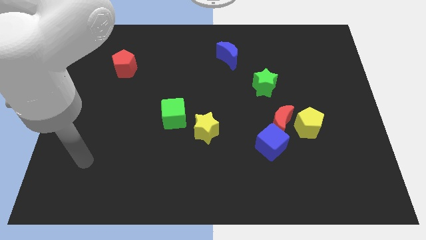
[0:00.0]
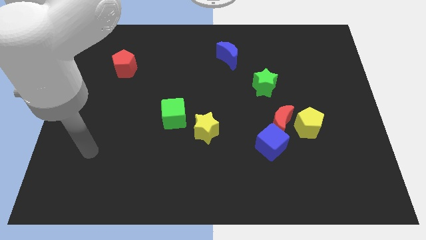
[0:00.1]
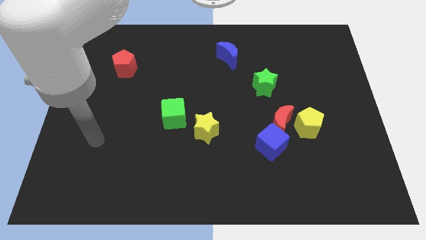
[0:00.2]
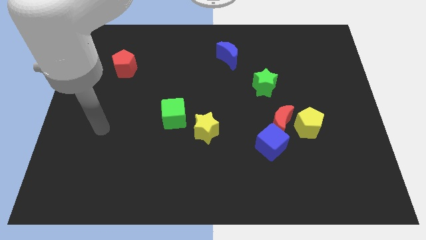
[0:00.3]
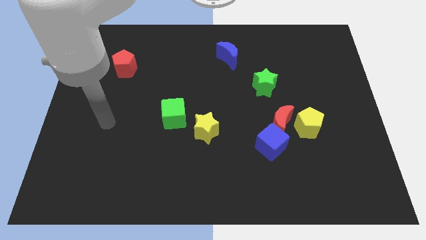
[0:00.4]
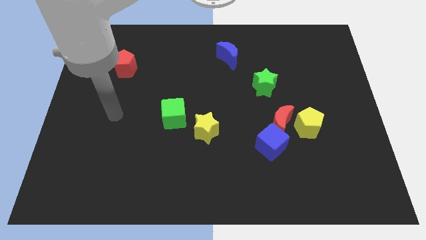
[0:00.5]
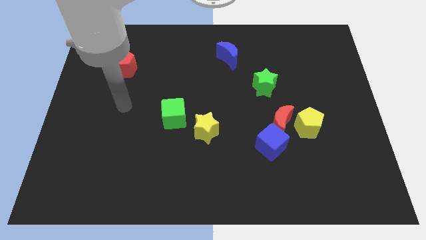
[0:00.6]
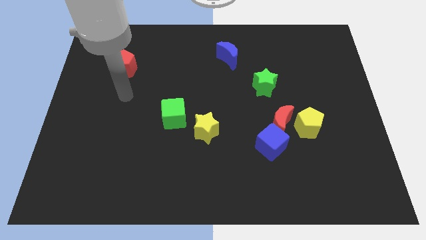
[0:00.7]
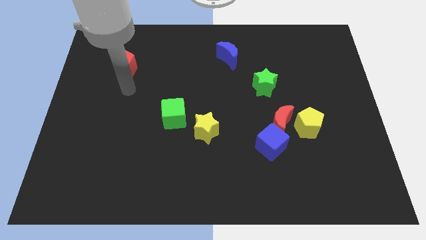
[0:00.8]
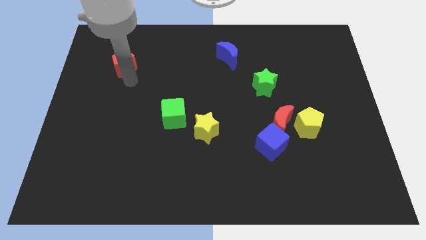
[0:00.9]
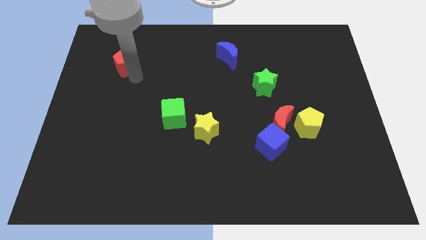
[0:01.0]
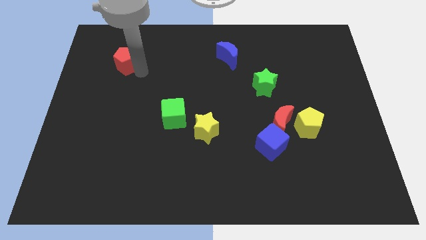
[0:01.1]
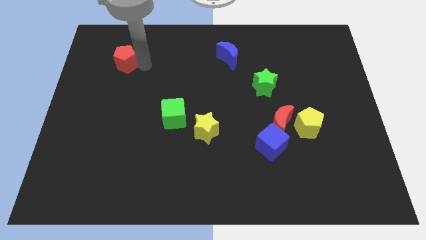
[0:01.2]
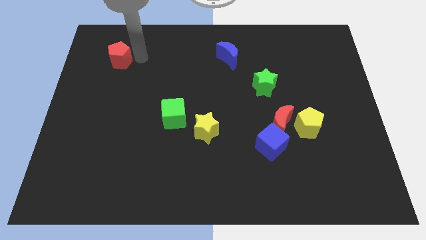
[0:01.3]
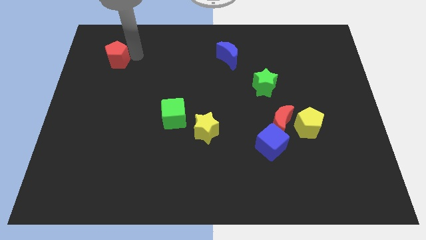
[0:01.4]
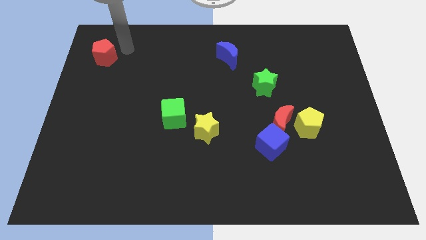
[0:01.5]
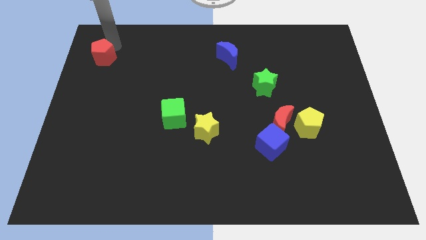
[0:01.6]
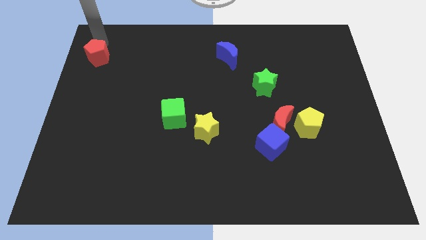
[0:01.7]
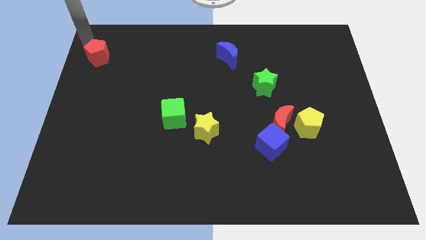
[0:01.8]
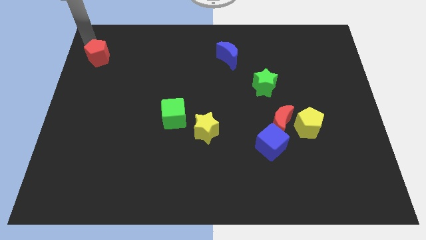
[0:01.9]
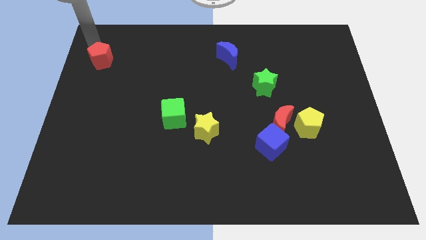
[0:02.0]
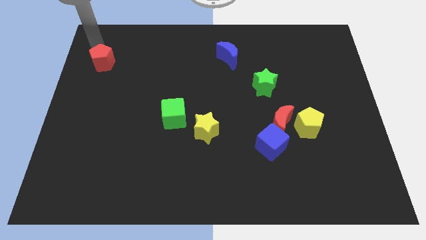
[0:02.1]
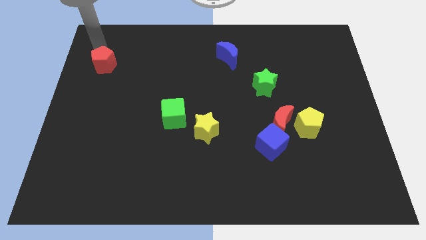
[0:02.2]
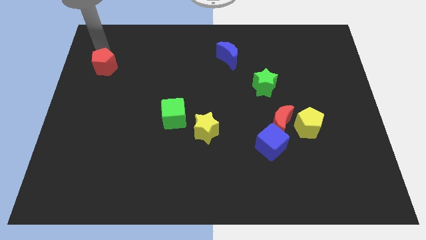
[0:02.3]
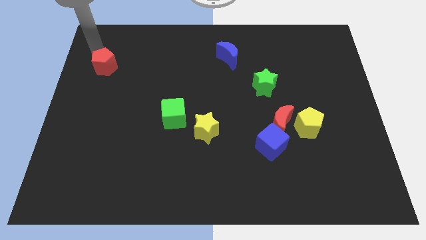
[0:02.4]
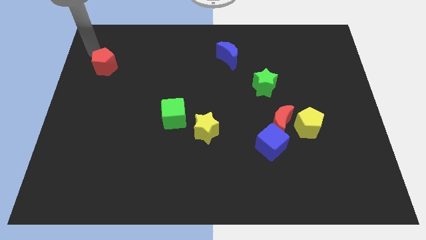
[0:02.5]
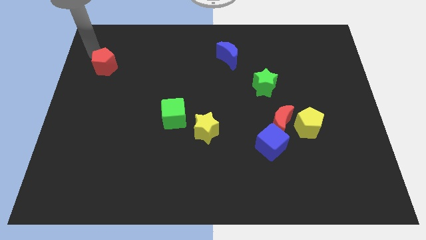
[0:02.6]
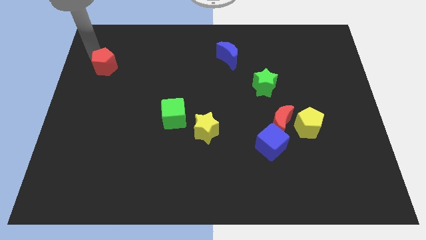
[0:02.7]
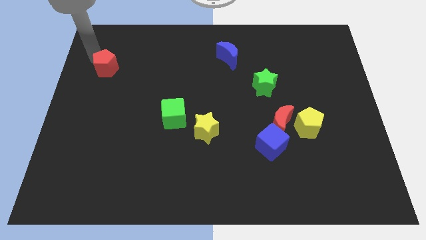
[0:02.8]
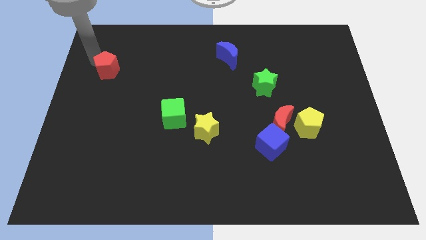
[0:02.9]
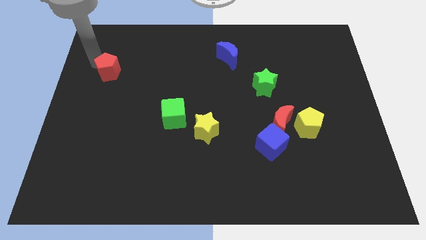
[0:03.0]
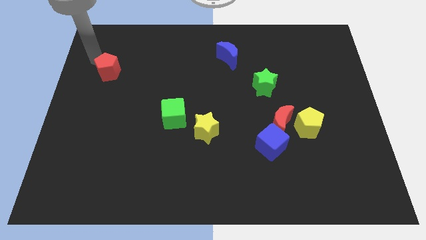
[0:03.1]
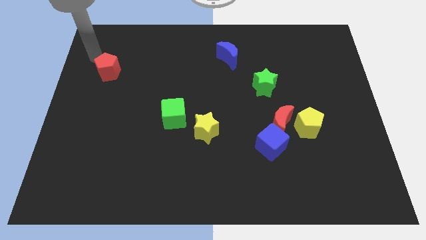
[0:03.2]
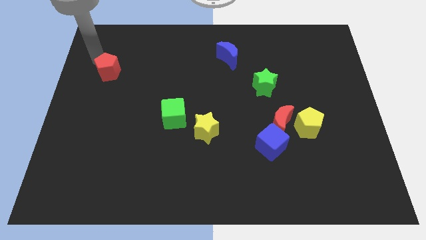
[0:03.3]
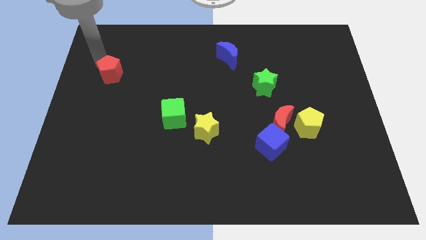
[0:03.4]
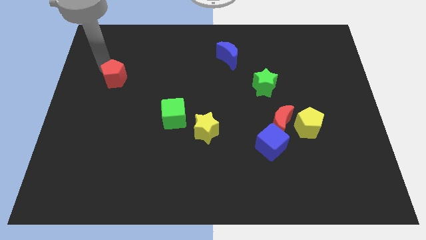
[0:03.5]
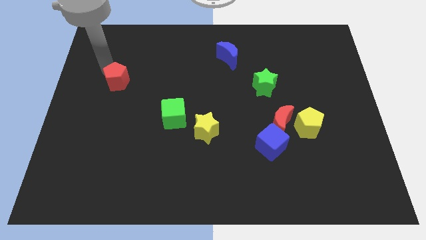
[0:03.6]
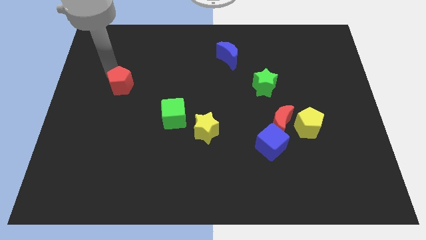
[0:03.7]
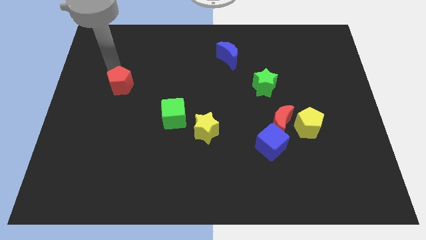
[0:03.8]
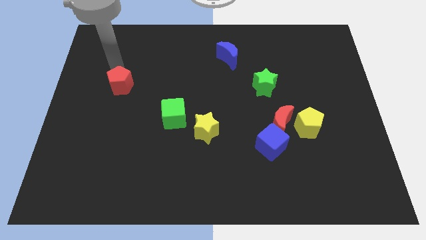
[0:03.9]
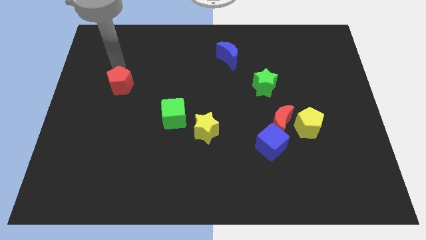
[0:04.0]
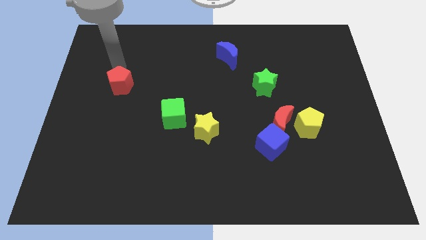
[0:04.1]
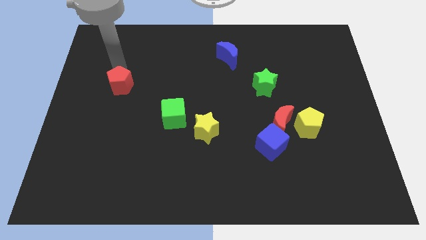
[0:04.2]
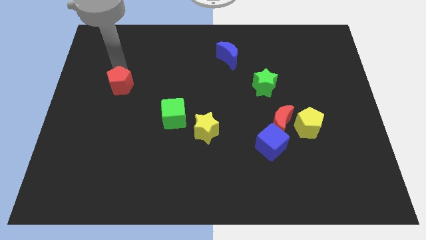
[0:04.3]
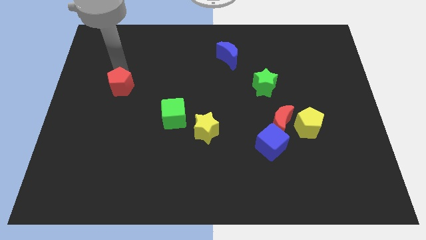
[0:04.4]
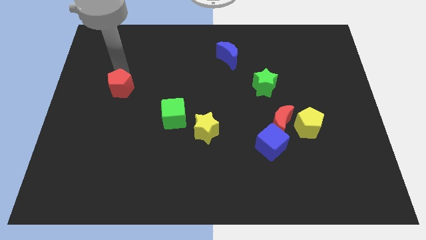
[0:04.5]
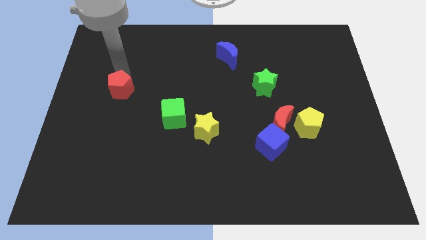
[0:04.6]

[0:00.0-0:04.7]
push the red pentagon down a little

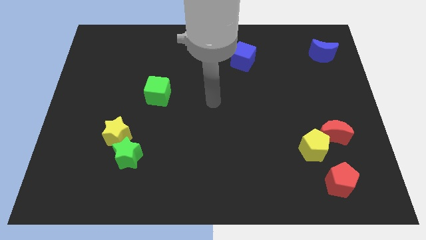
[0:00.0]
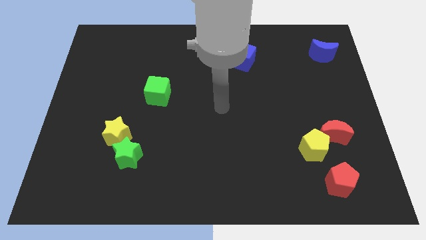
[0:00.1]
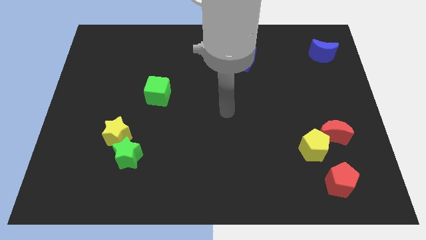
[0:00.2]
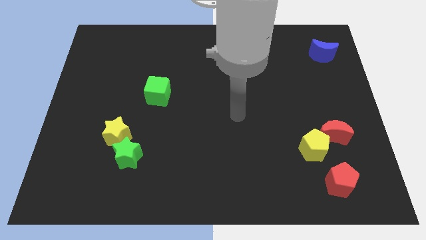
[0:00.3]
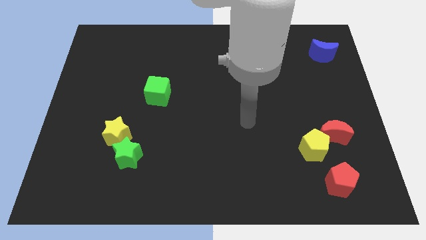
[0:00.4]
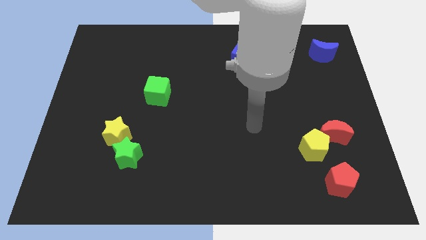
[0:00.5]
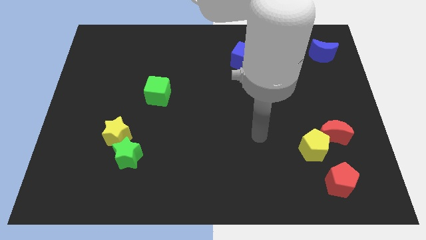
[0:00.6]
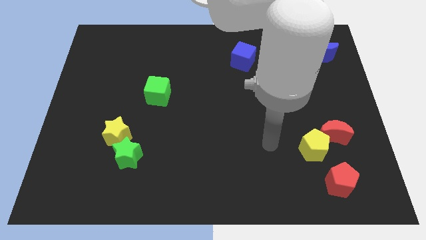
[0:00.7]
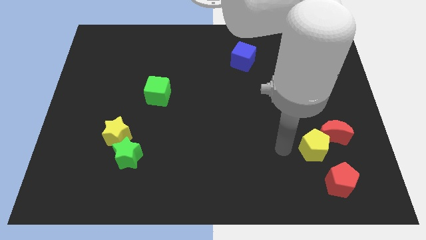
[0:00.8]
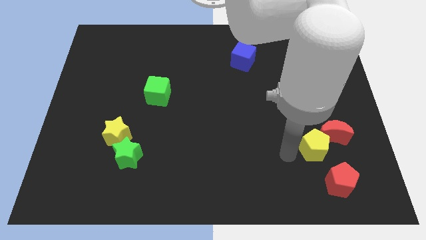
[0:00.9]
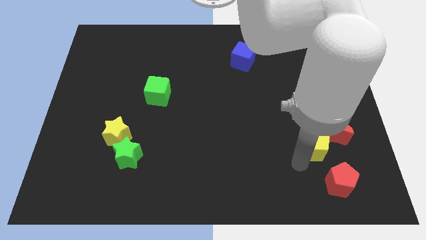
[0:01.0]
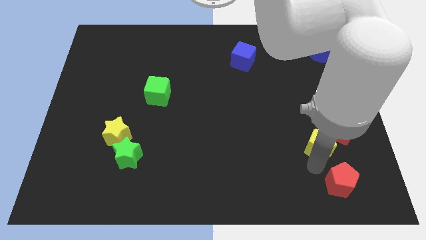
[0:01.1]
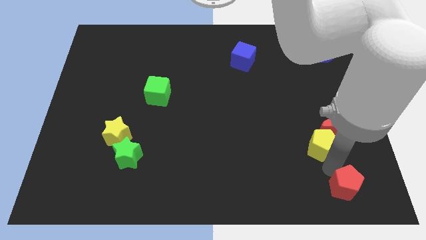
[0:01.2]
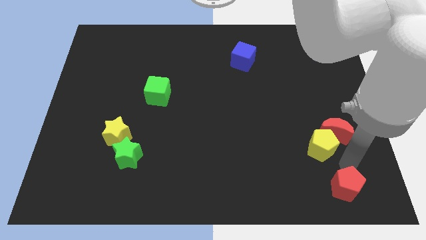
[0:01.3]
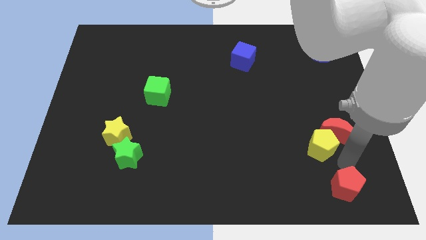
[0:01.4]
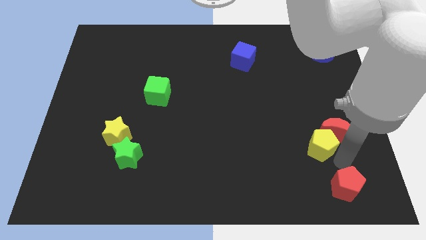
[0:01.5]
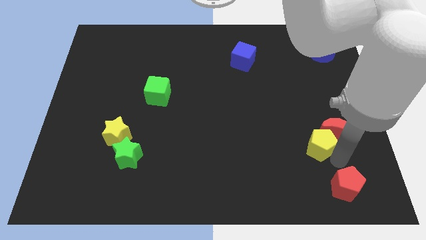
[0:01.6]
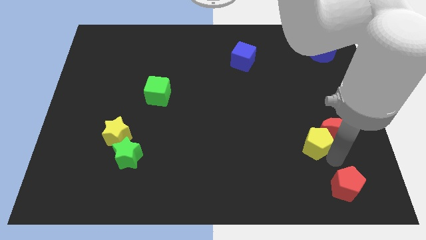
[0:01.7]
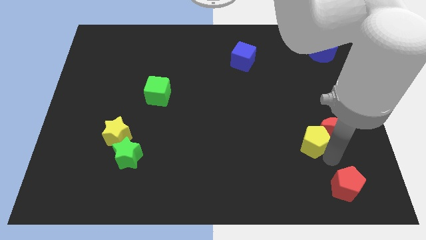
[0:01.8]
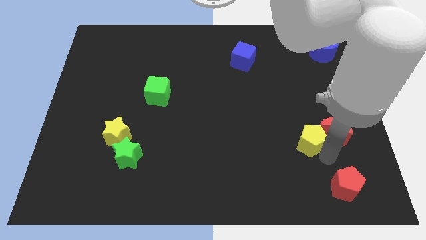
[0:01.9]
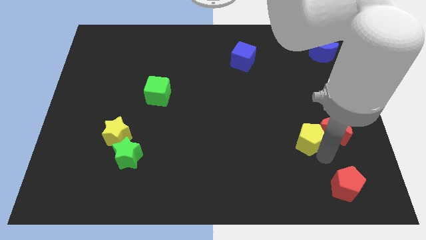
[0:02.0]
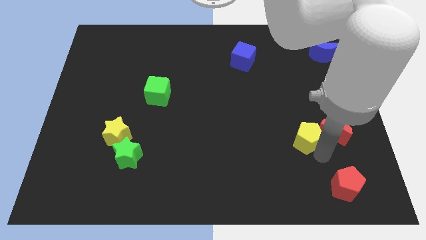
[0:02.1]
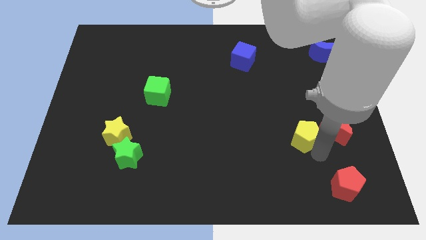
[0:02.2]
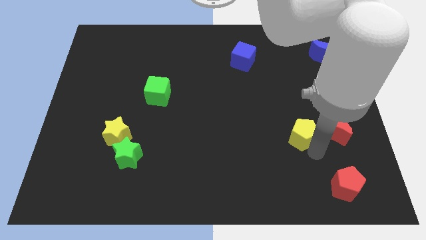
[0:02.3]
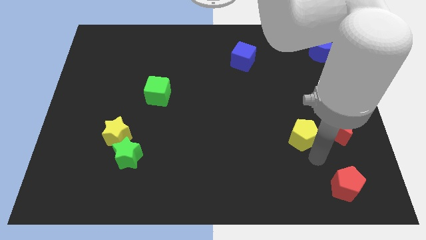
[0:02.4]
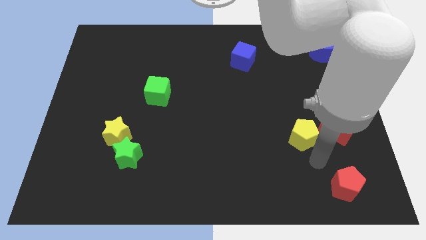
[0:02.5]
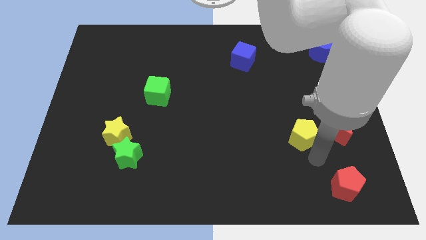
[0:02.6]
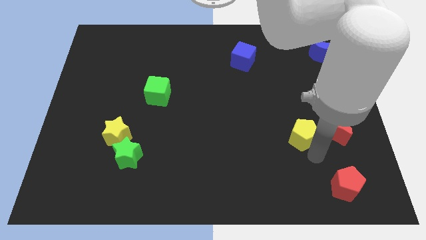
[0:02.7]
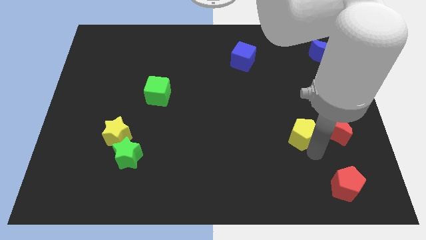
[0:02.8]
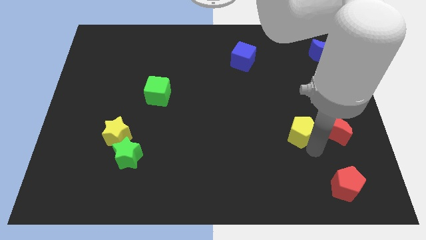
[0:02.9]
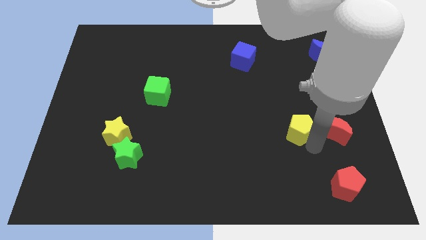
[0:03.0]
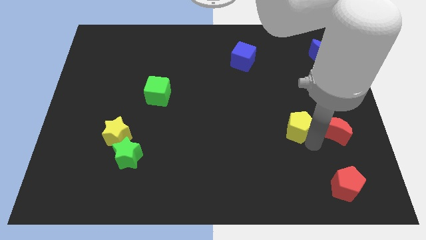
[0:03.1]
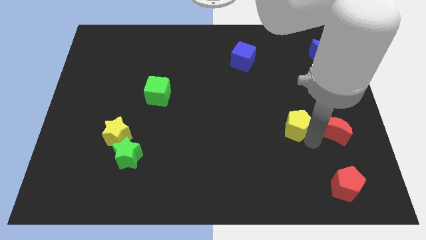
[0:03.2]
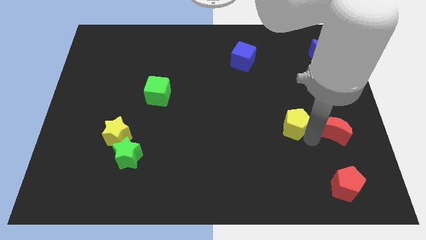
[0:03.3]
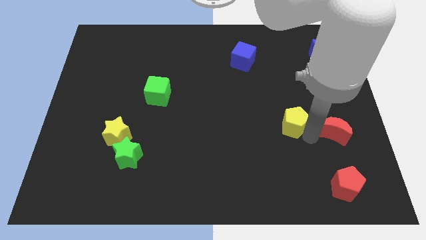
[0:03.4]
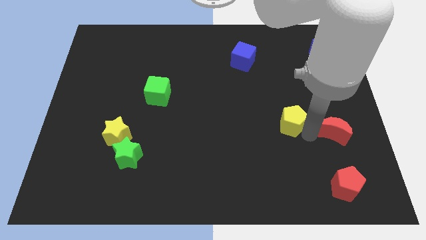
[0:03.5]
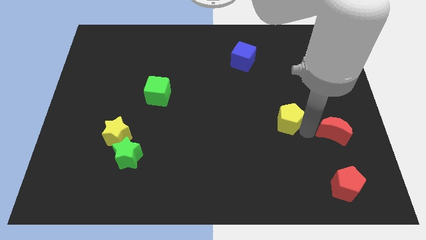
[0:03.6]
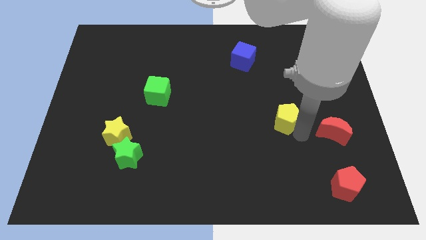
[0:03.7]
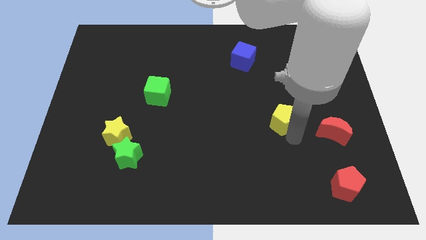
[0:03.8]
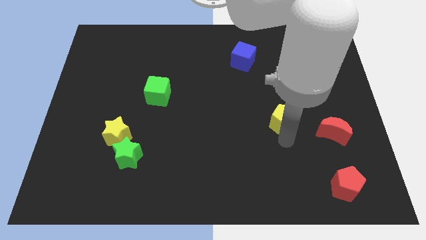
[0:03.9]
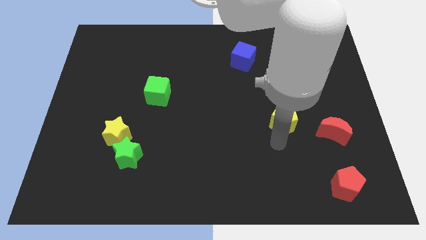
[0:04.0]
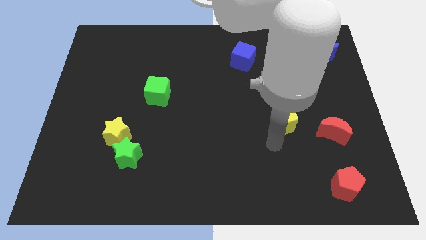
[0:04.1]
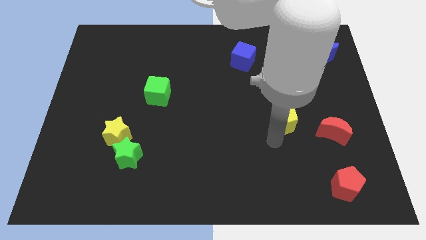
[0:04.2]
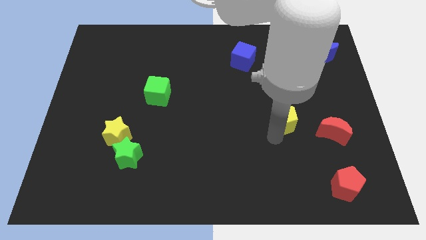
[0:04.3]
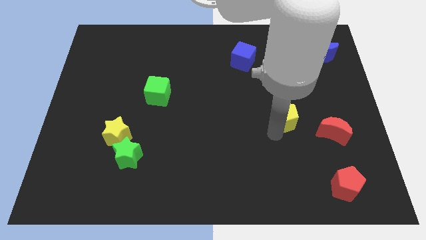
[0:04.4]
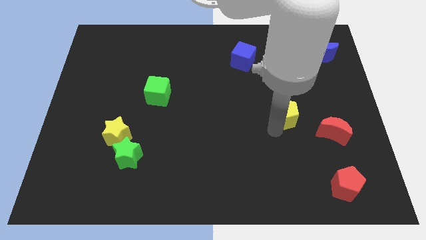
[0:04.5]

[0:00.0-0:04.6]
push the yellow pentagon a little up
